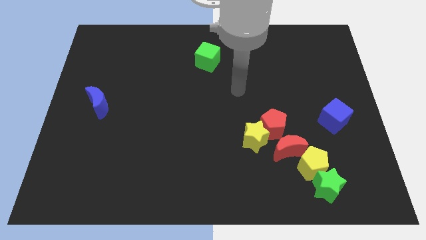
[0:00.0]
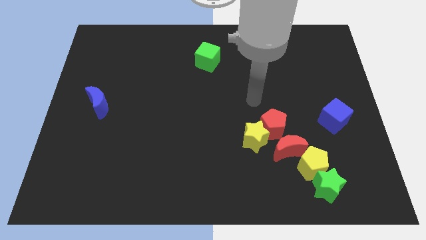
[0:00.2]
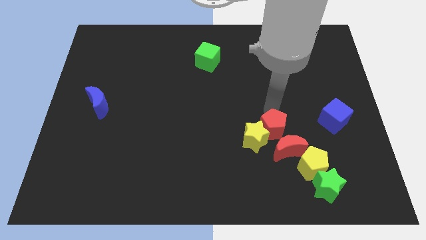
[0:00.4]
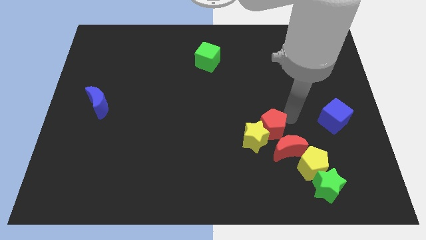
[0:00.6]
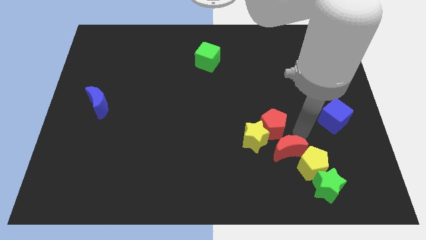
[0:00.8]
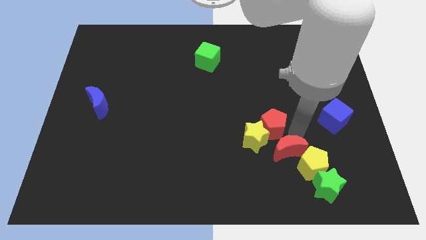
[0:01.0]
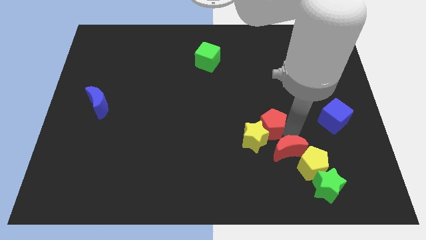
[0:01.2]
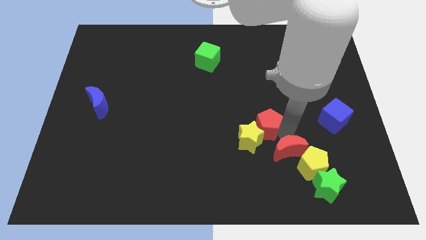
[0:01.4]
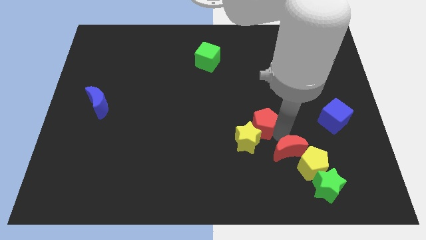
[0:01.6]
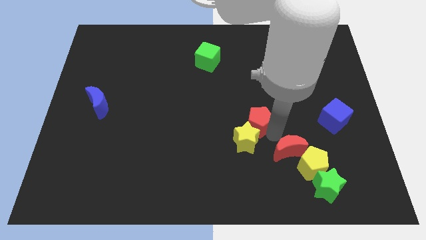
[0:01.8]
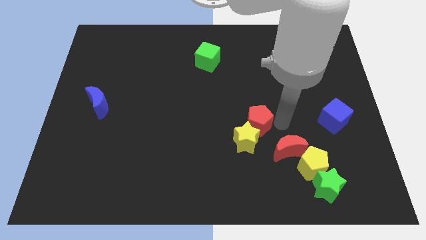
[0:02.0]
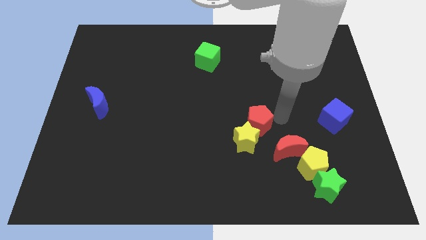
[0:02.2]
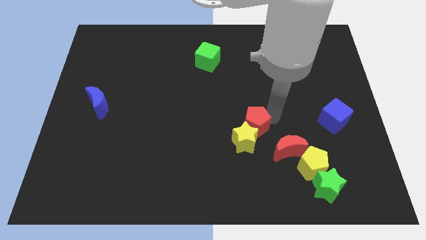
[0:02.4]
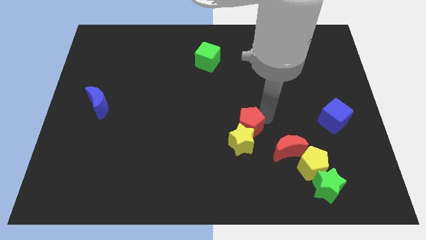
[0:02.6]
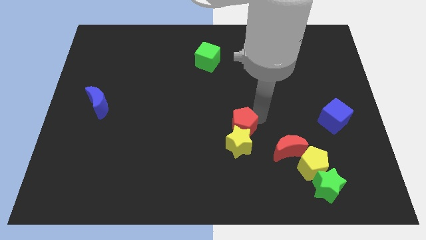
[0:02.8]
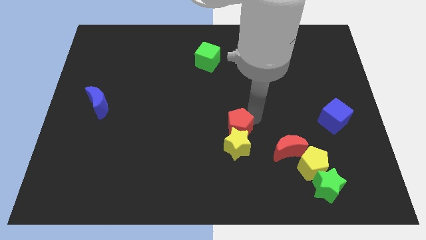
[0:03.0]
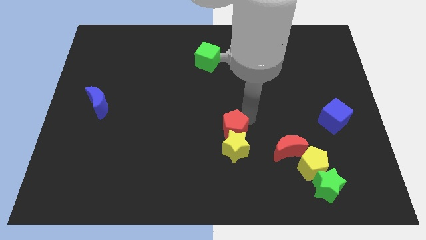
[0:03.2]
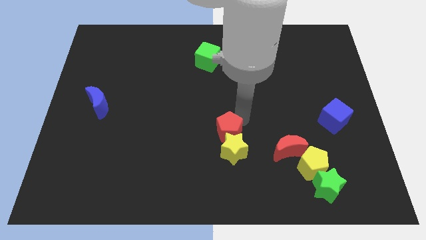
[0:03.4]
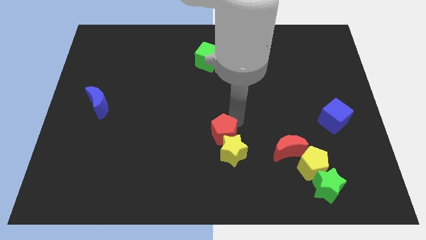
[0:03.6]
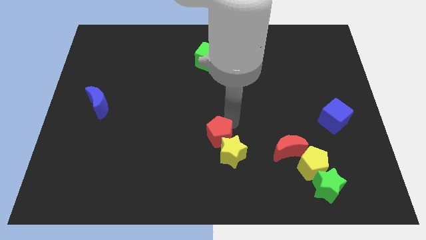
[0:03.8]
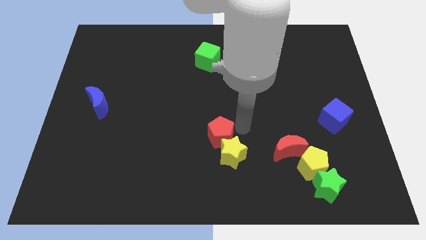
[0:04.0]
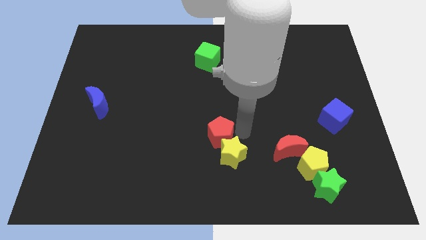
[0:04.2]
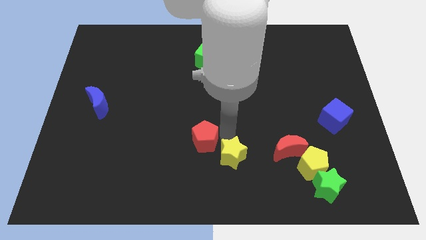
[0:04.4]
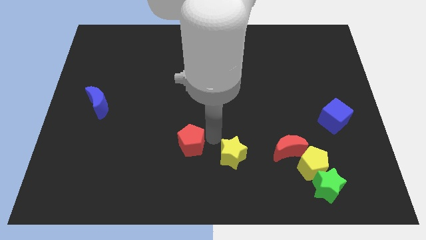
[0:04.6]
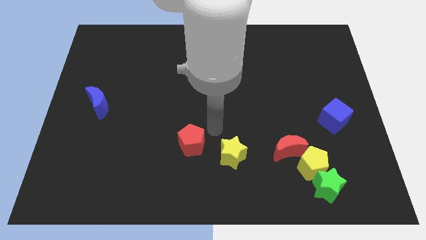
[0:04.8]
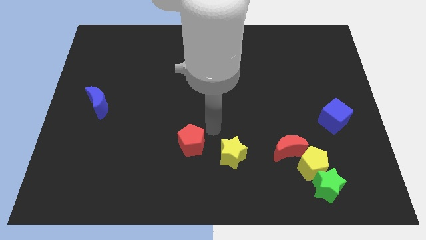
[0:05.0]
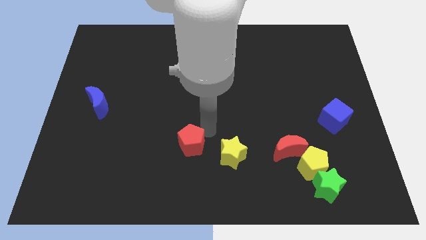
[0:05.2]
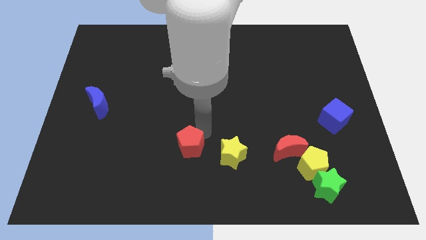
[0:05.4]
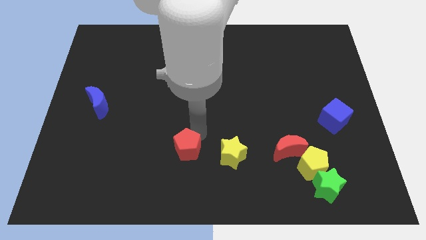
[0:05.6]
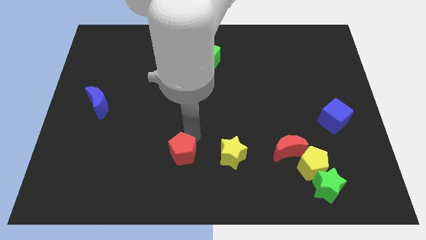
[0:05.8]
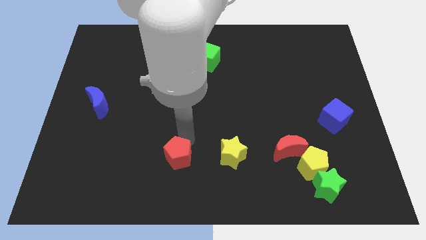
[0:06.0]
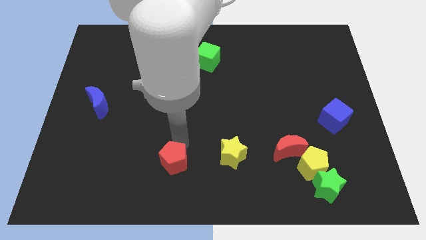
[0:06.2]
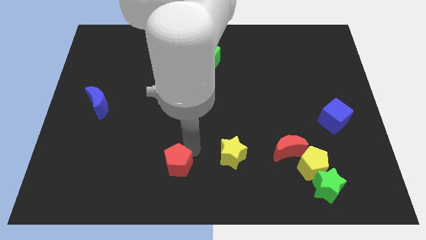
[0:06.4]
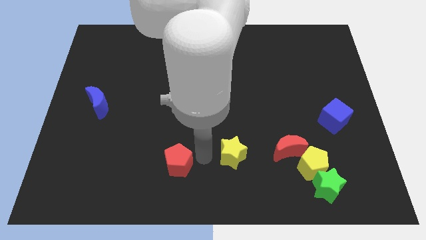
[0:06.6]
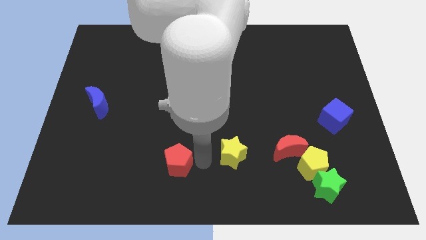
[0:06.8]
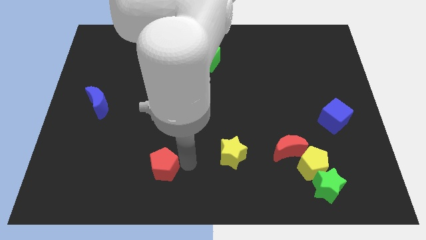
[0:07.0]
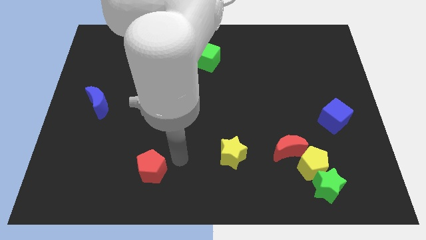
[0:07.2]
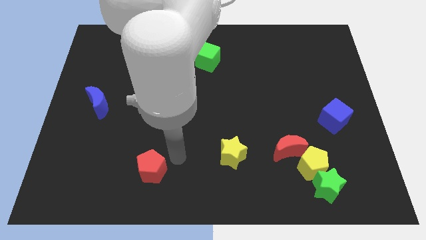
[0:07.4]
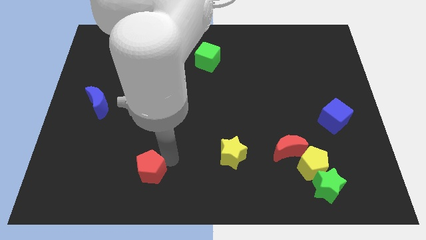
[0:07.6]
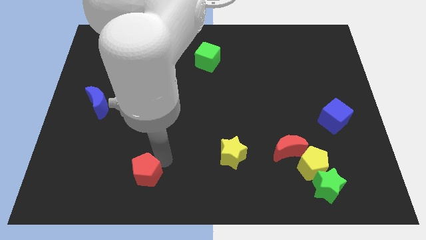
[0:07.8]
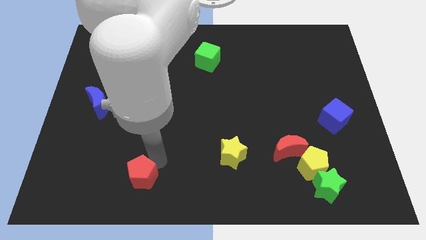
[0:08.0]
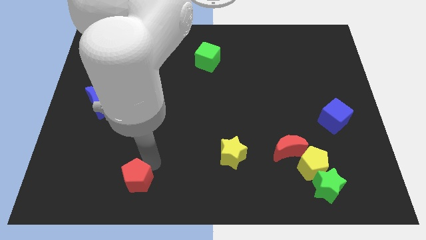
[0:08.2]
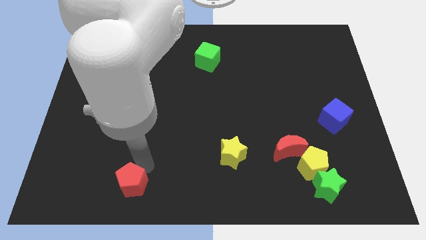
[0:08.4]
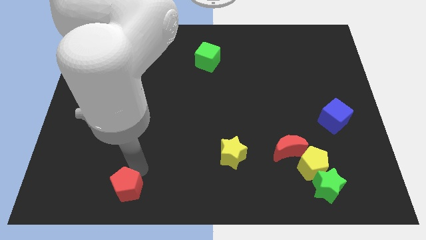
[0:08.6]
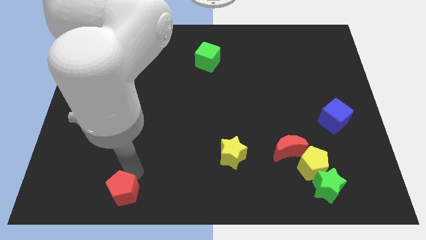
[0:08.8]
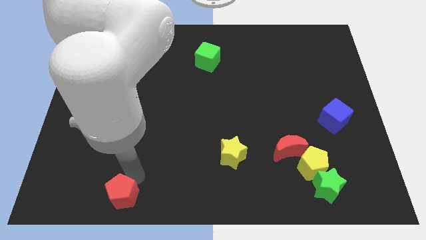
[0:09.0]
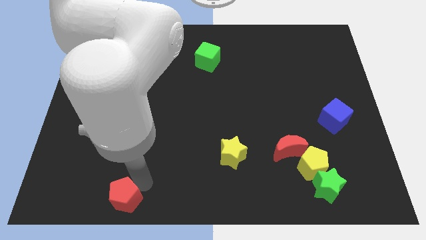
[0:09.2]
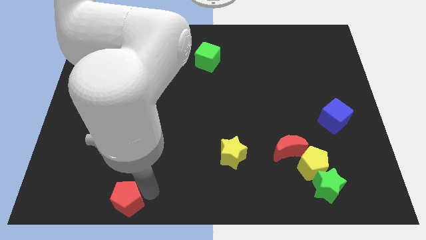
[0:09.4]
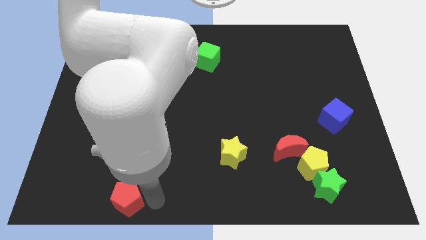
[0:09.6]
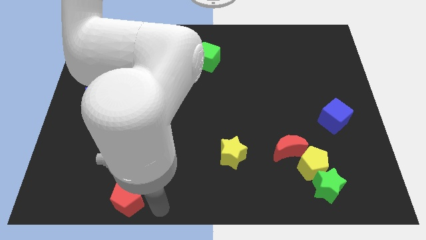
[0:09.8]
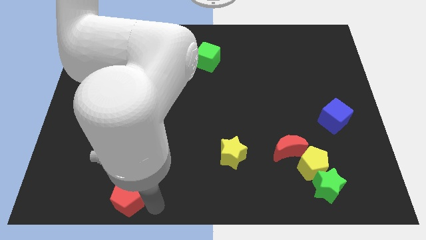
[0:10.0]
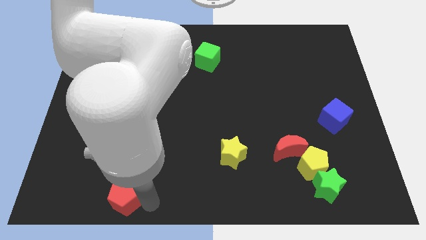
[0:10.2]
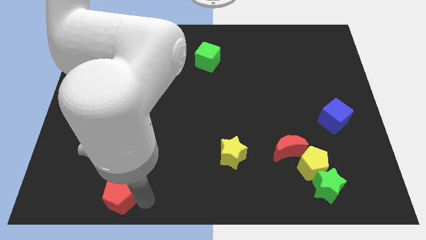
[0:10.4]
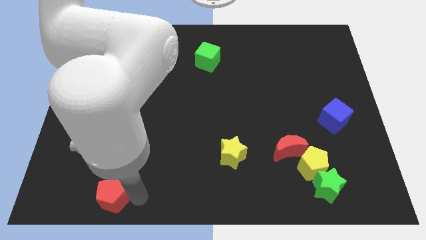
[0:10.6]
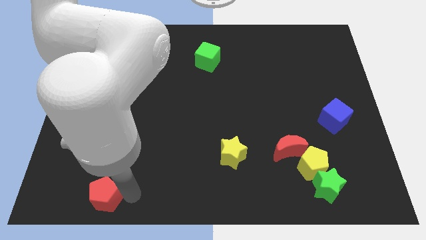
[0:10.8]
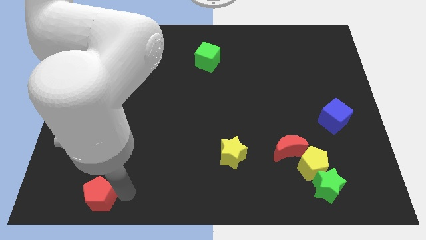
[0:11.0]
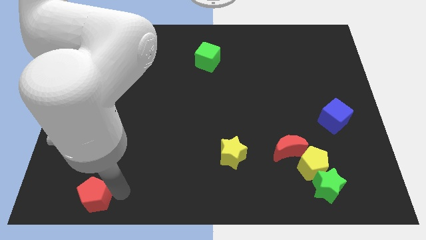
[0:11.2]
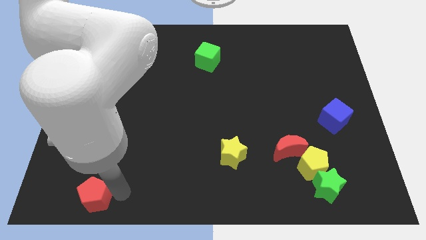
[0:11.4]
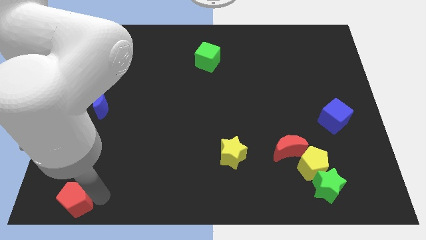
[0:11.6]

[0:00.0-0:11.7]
move the red pentagon to the bottom left of the board

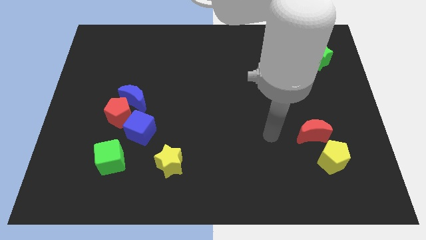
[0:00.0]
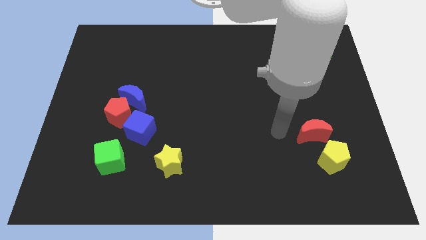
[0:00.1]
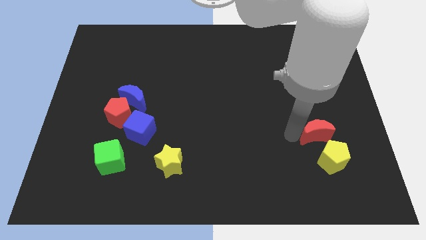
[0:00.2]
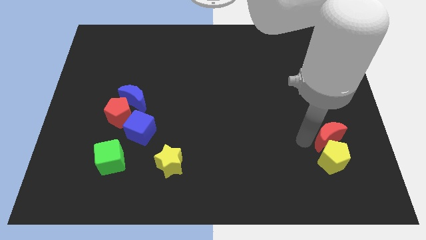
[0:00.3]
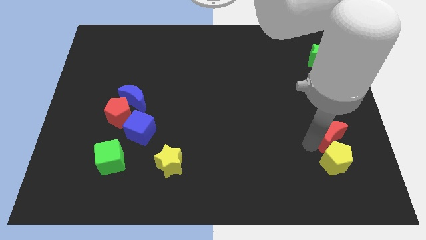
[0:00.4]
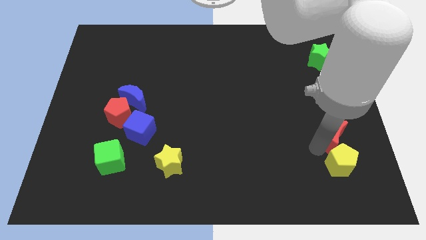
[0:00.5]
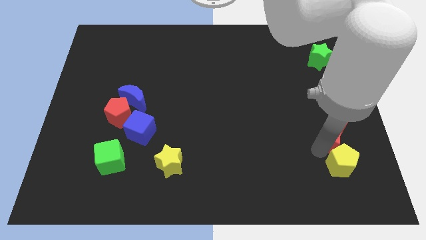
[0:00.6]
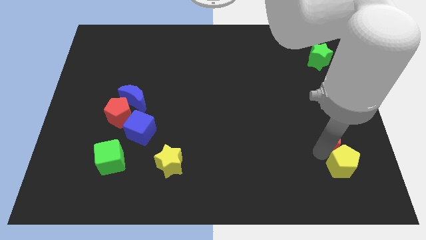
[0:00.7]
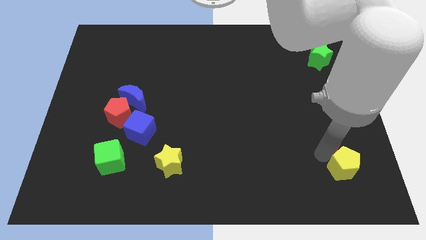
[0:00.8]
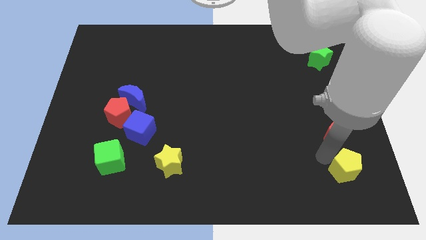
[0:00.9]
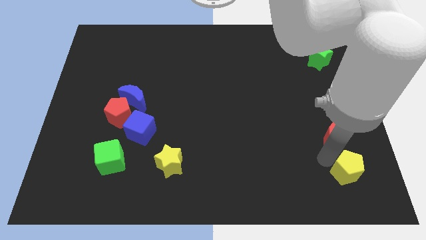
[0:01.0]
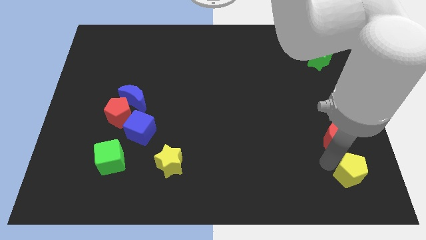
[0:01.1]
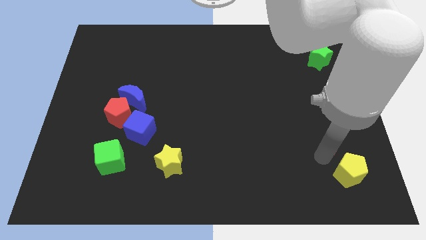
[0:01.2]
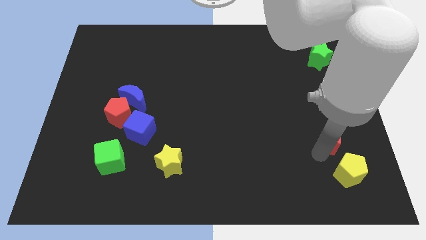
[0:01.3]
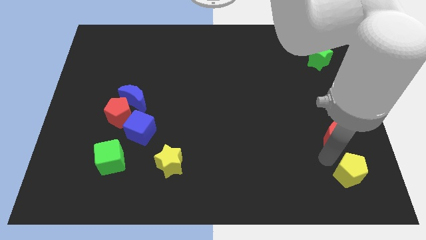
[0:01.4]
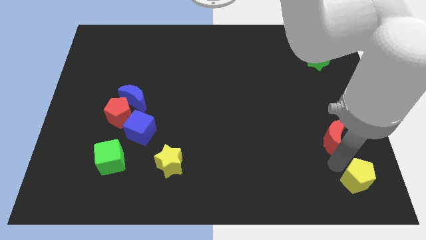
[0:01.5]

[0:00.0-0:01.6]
move the yellow pentagon to the lower right corner
